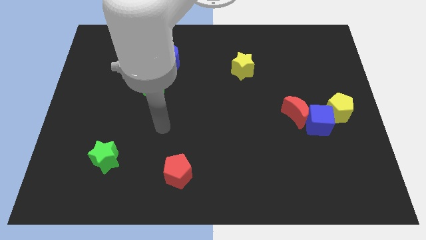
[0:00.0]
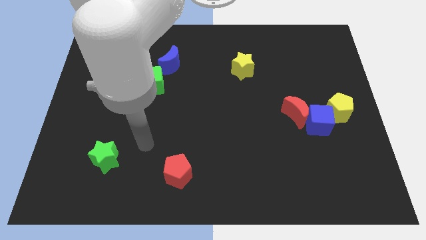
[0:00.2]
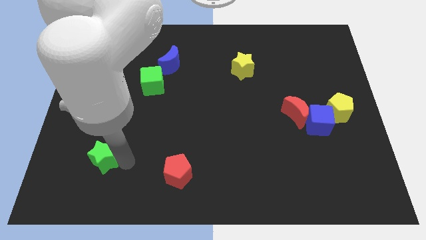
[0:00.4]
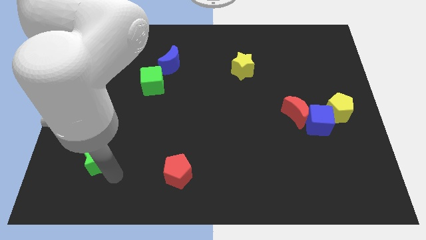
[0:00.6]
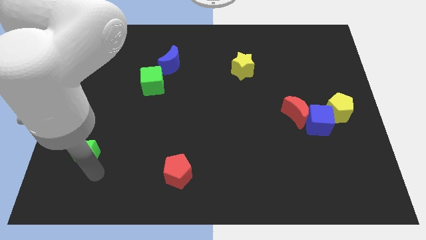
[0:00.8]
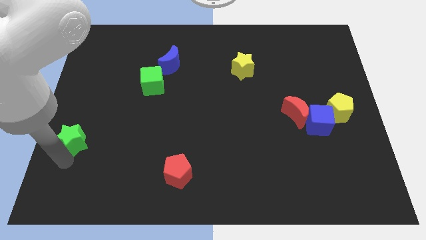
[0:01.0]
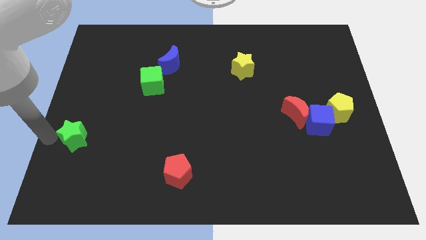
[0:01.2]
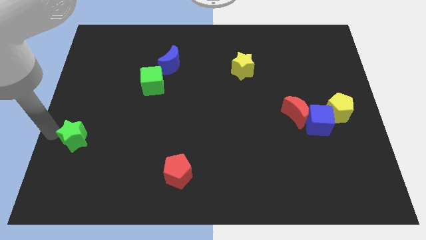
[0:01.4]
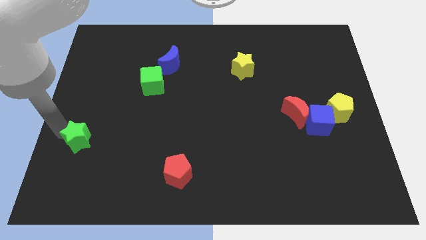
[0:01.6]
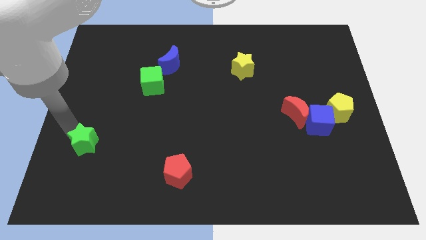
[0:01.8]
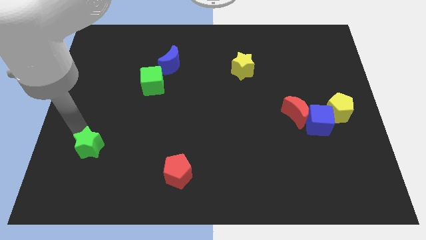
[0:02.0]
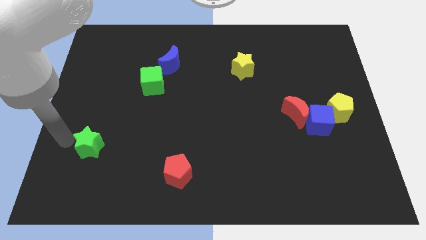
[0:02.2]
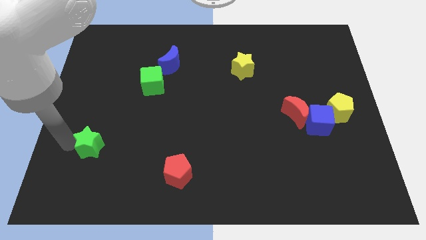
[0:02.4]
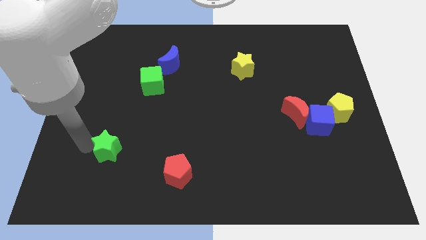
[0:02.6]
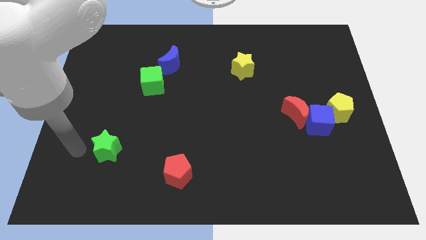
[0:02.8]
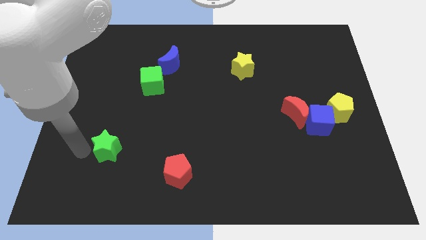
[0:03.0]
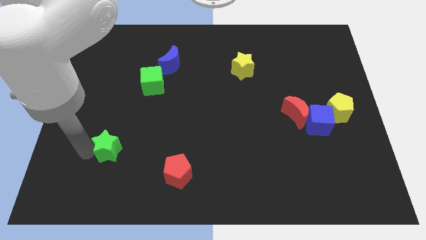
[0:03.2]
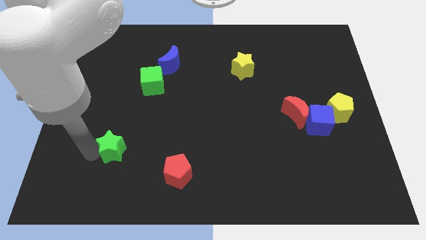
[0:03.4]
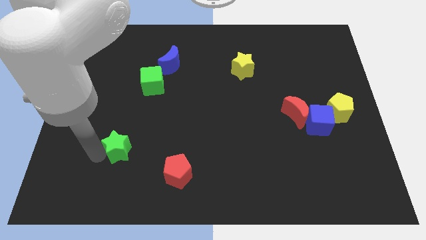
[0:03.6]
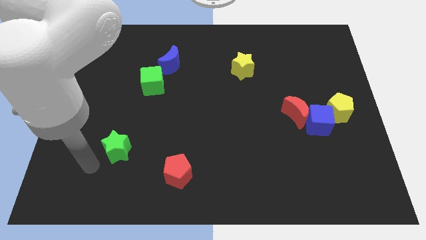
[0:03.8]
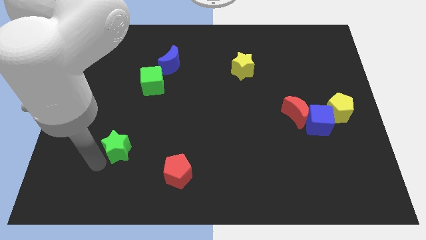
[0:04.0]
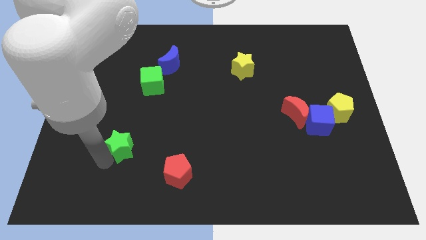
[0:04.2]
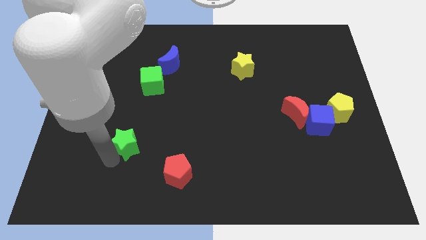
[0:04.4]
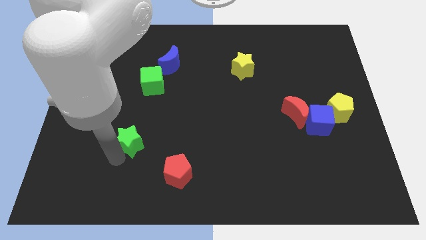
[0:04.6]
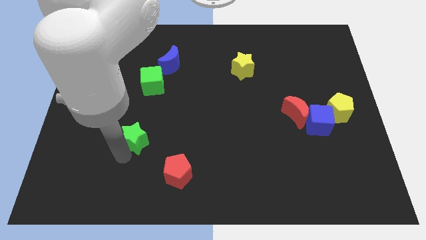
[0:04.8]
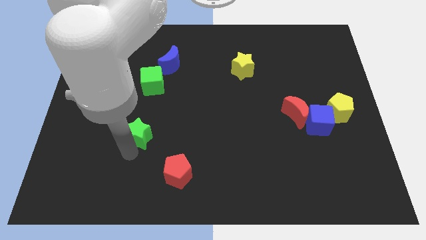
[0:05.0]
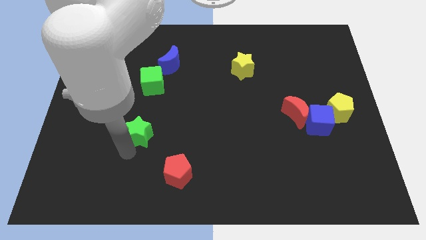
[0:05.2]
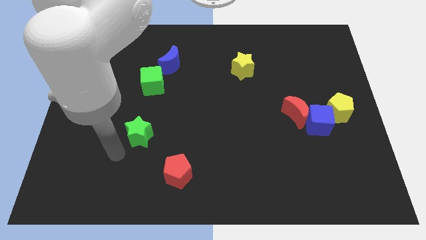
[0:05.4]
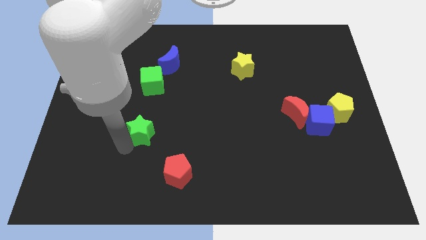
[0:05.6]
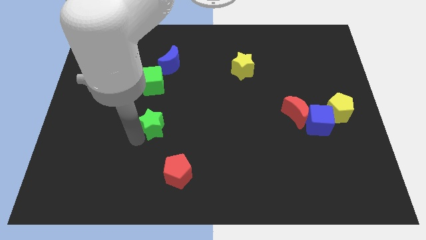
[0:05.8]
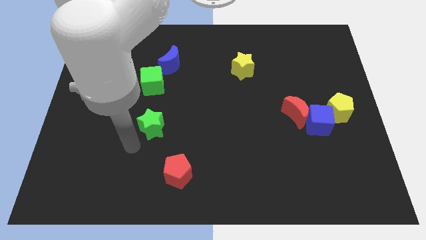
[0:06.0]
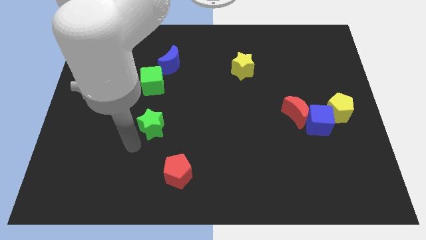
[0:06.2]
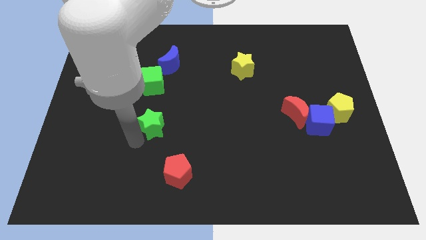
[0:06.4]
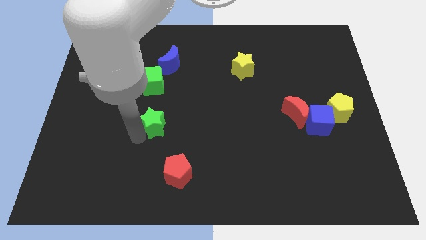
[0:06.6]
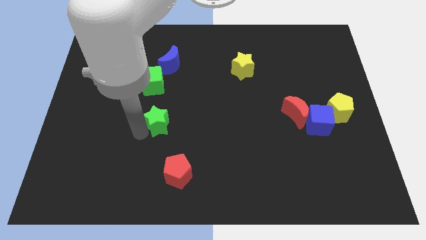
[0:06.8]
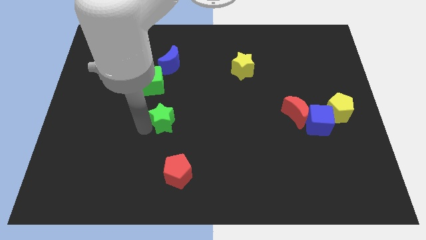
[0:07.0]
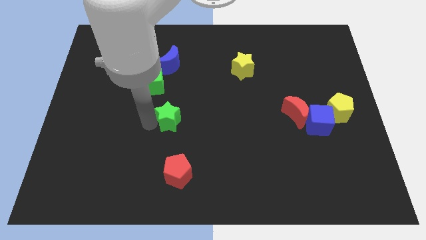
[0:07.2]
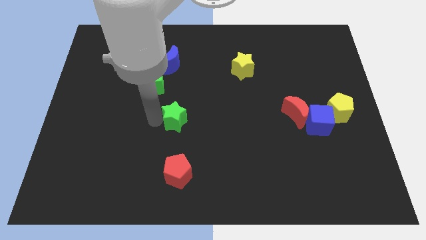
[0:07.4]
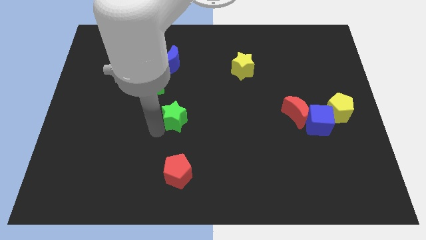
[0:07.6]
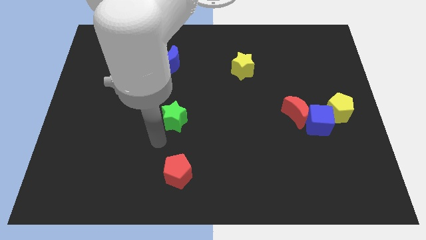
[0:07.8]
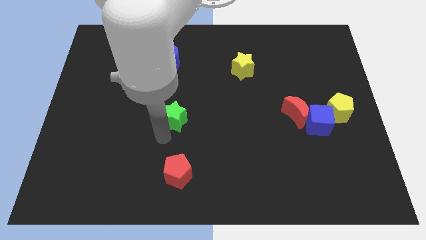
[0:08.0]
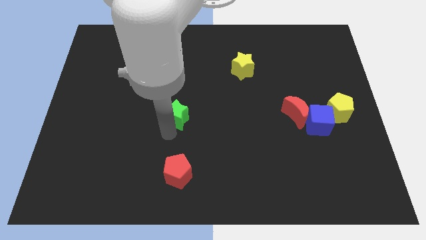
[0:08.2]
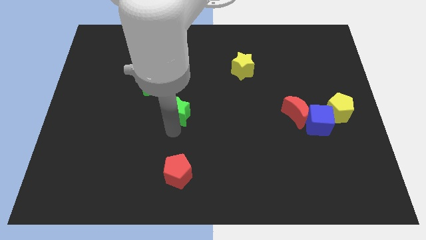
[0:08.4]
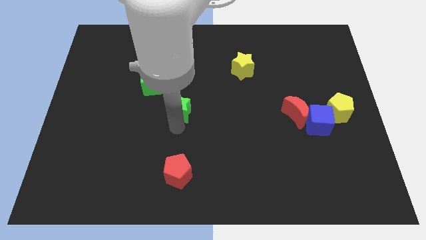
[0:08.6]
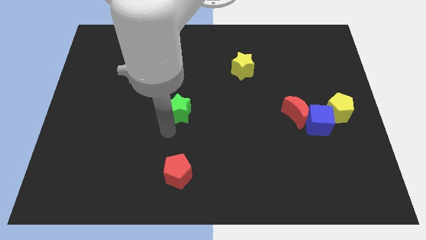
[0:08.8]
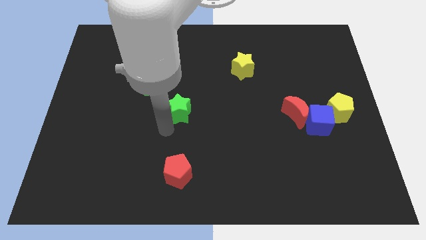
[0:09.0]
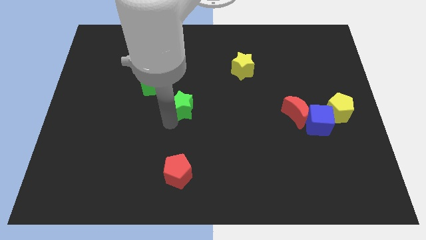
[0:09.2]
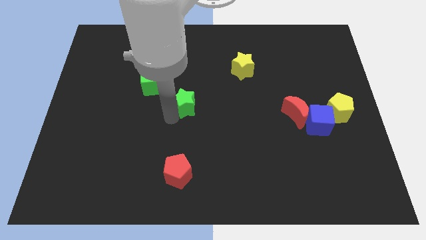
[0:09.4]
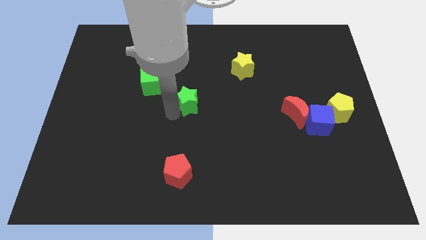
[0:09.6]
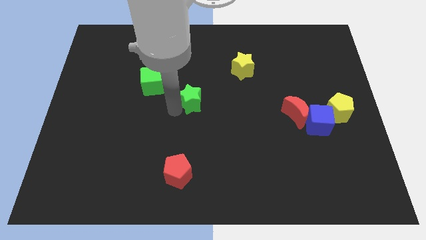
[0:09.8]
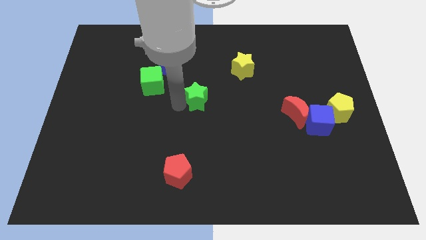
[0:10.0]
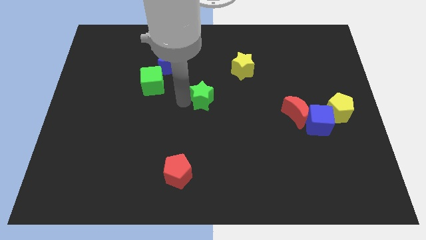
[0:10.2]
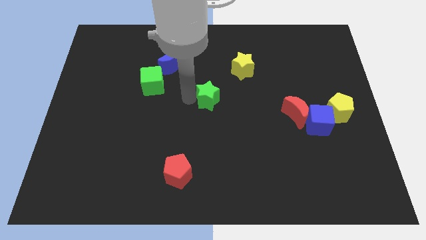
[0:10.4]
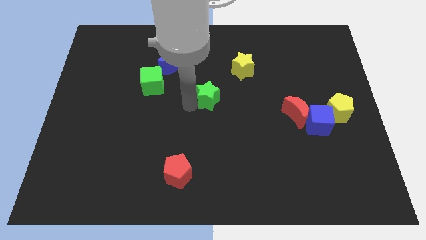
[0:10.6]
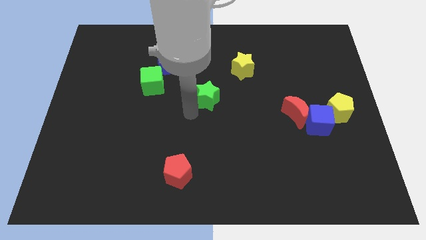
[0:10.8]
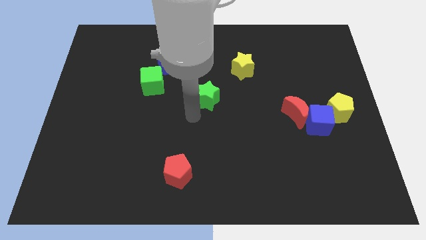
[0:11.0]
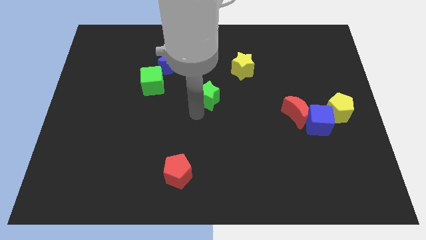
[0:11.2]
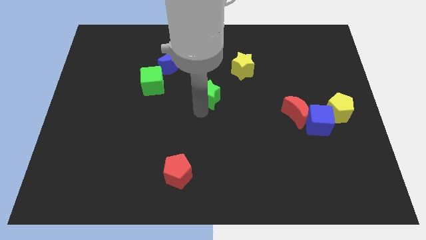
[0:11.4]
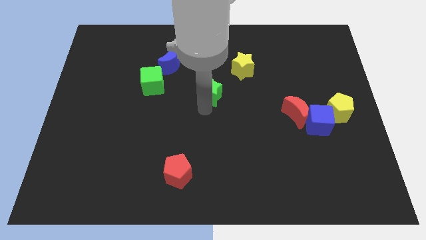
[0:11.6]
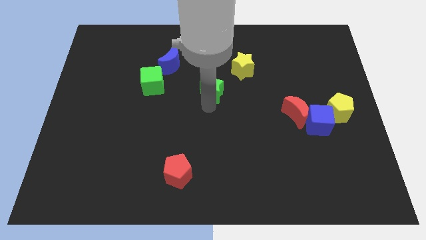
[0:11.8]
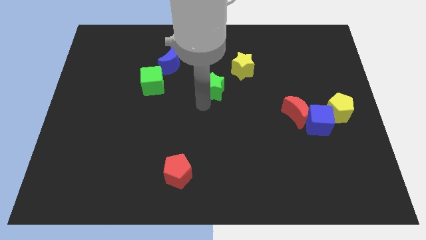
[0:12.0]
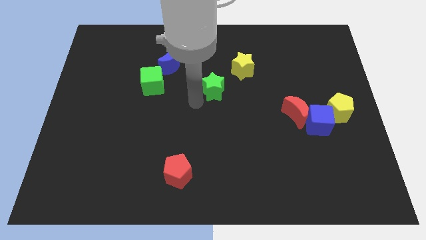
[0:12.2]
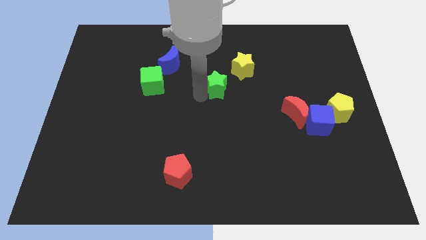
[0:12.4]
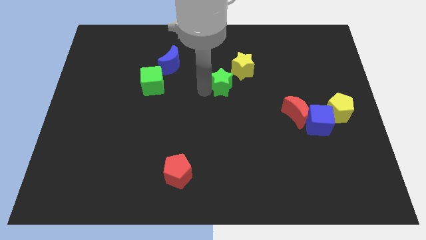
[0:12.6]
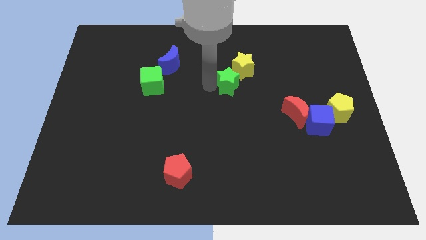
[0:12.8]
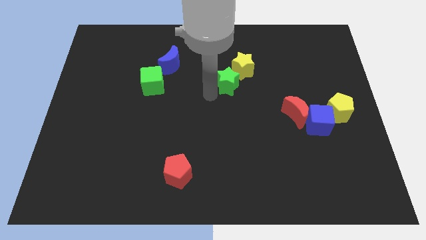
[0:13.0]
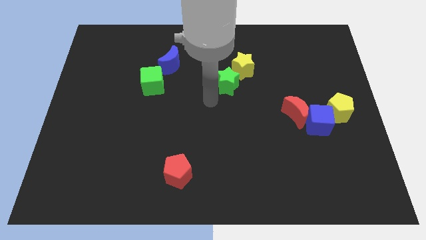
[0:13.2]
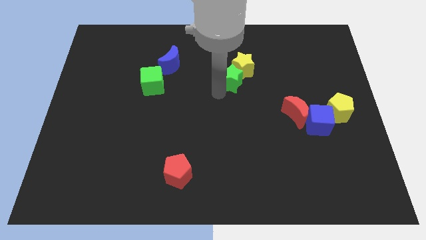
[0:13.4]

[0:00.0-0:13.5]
put the green star next to the yellow star
